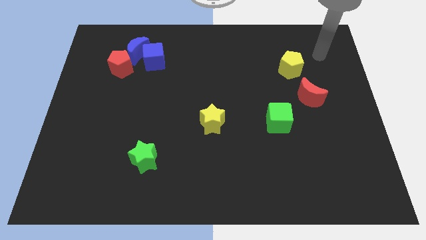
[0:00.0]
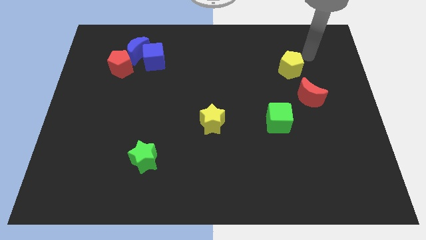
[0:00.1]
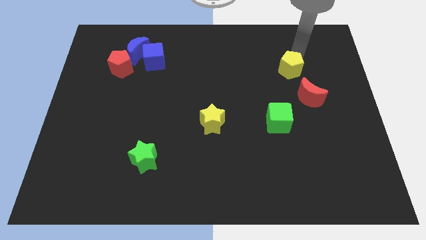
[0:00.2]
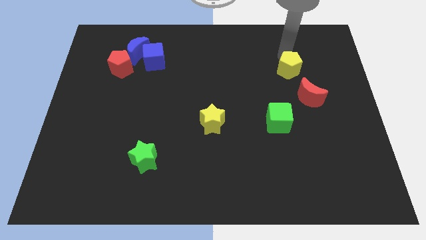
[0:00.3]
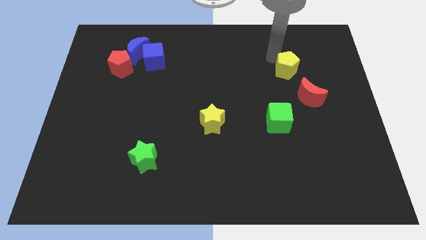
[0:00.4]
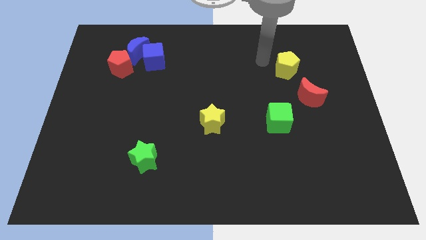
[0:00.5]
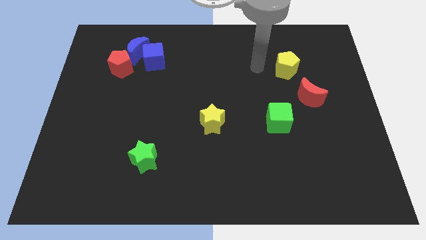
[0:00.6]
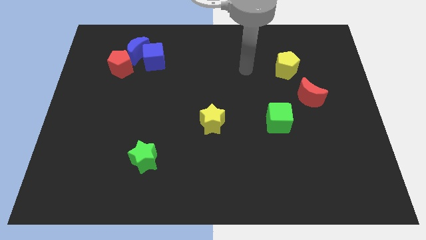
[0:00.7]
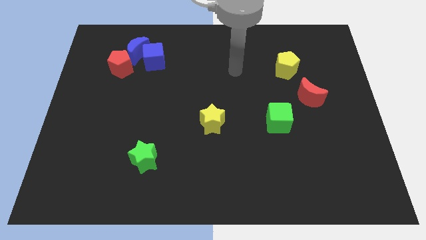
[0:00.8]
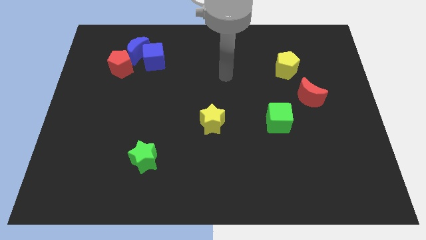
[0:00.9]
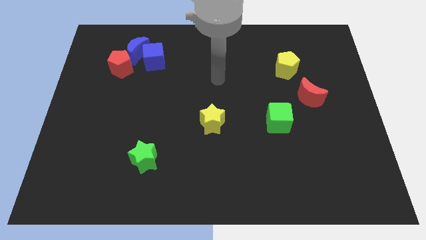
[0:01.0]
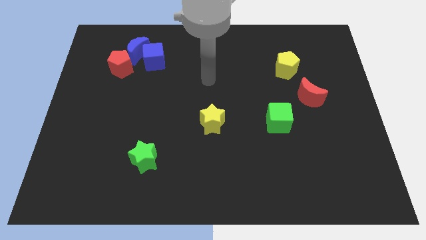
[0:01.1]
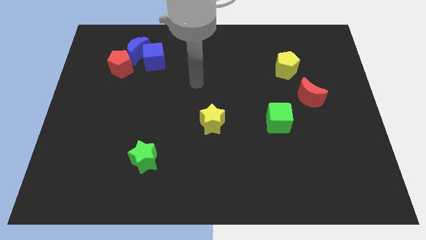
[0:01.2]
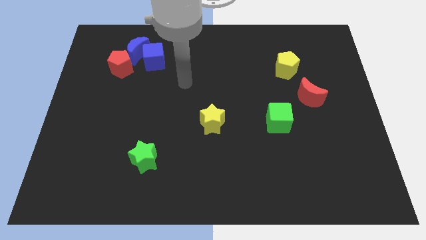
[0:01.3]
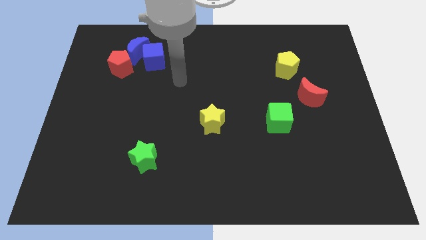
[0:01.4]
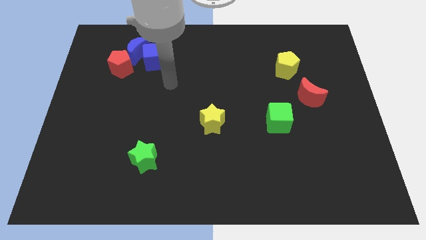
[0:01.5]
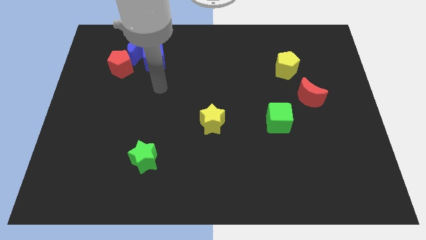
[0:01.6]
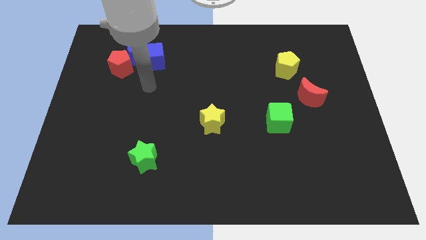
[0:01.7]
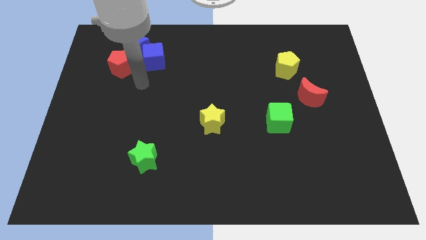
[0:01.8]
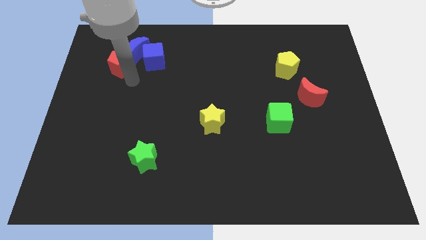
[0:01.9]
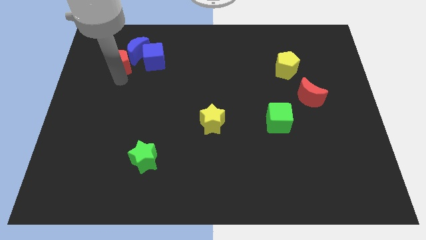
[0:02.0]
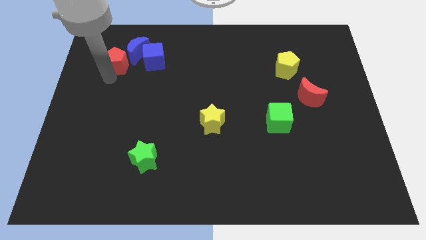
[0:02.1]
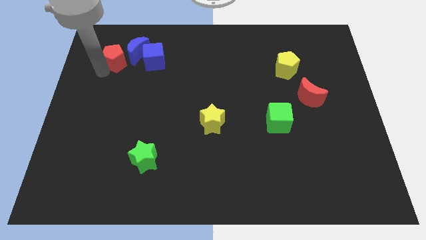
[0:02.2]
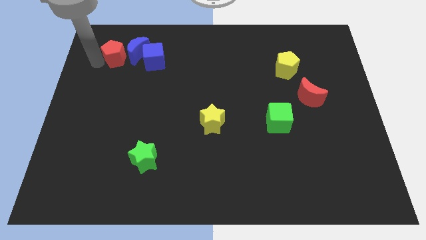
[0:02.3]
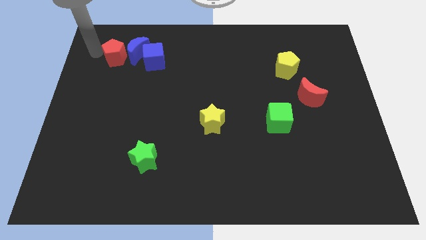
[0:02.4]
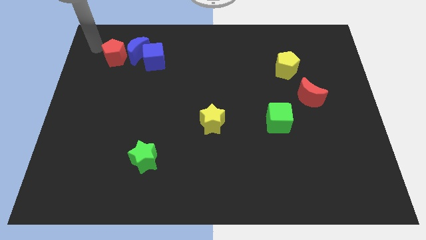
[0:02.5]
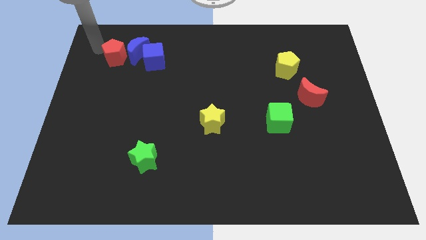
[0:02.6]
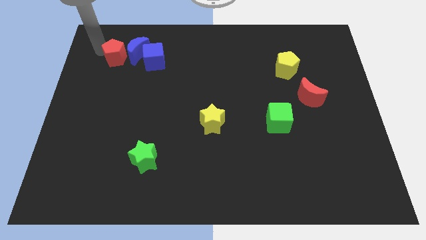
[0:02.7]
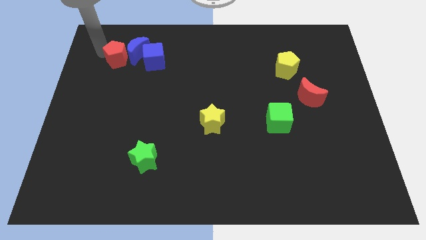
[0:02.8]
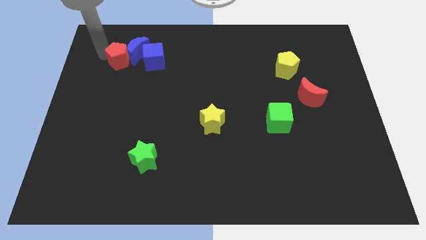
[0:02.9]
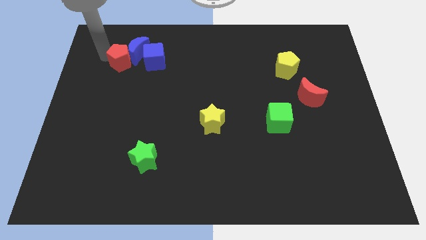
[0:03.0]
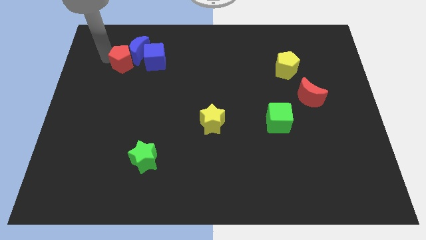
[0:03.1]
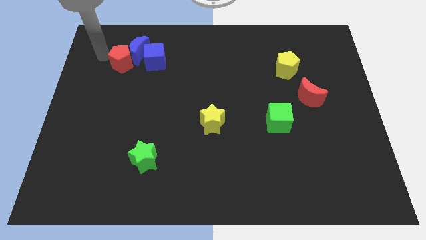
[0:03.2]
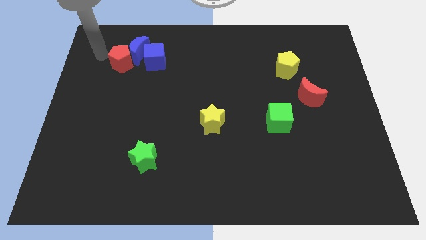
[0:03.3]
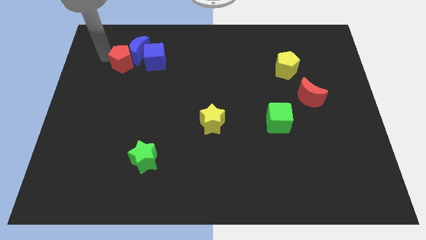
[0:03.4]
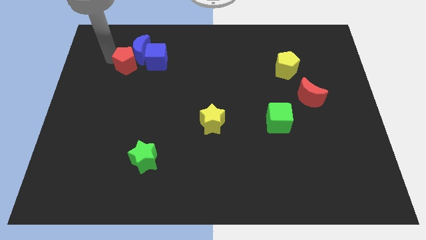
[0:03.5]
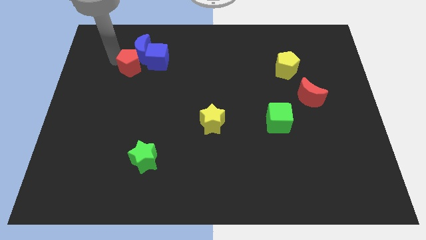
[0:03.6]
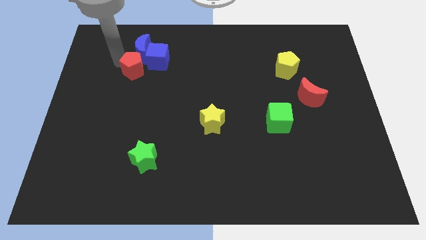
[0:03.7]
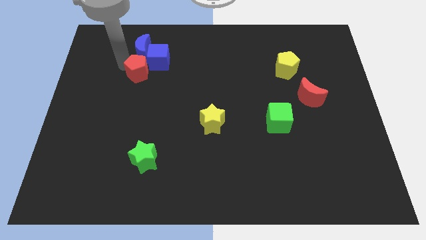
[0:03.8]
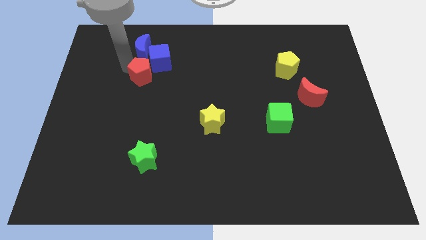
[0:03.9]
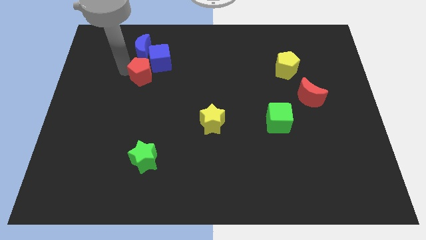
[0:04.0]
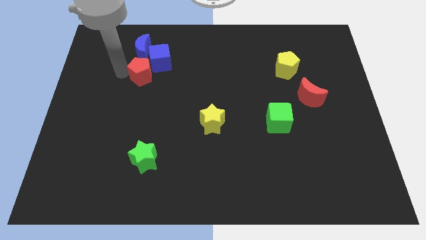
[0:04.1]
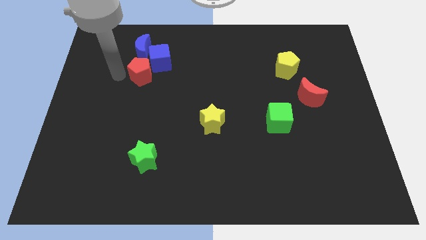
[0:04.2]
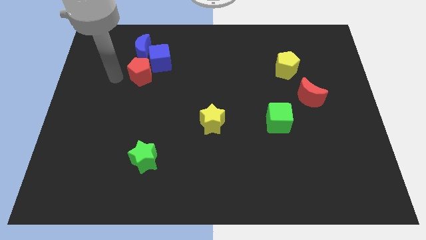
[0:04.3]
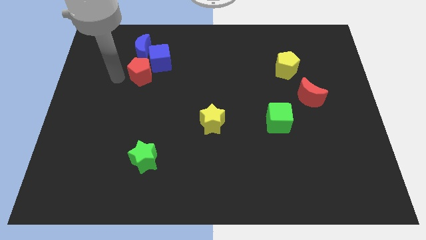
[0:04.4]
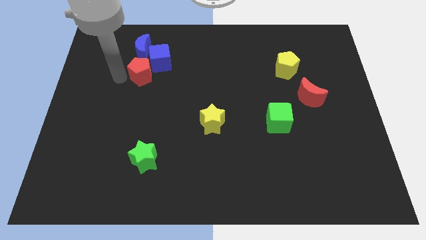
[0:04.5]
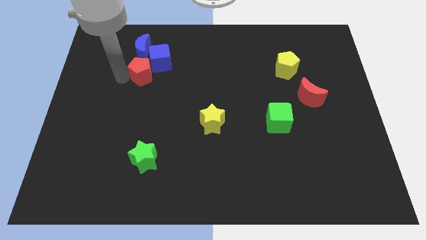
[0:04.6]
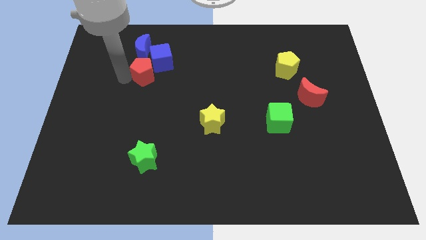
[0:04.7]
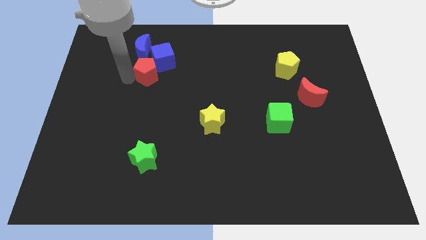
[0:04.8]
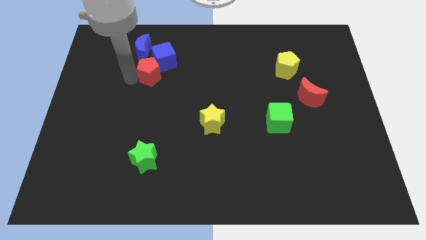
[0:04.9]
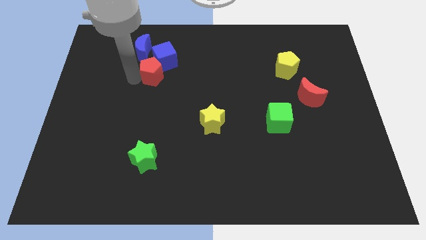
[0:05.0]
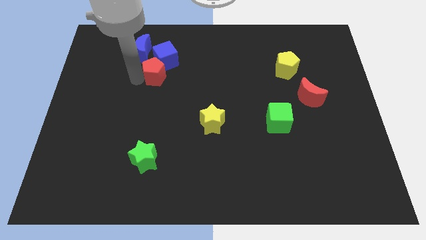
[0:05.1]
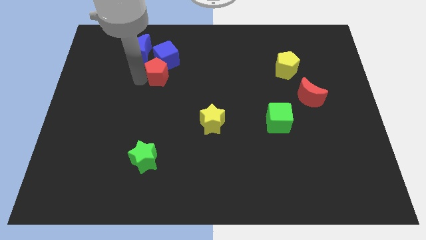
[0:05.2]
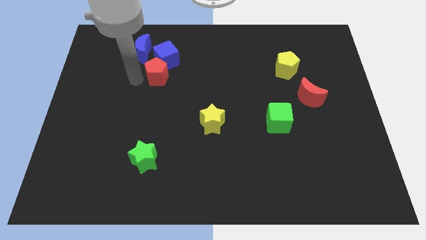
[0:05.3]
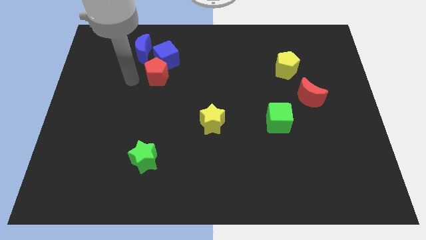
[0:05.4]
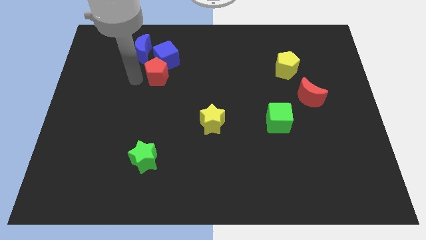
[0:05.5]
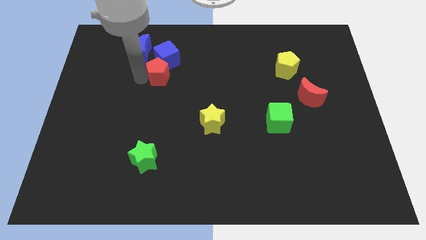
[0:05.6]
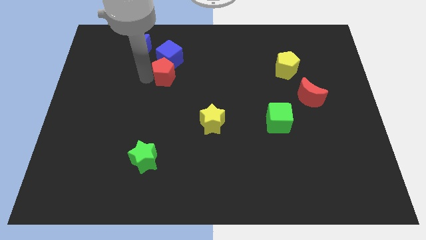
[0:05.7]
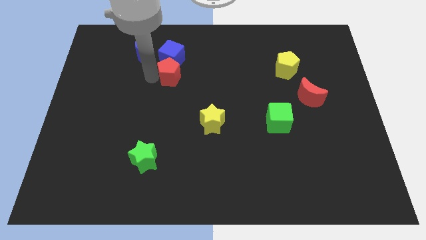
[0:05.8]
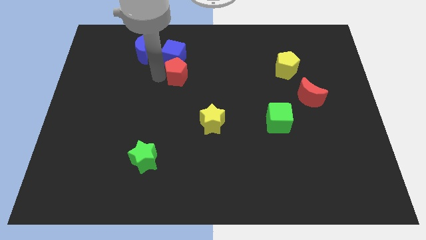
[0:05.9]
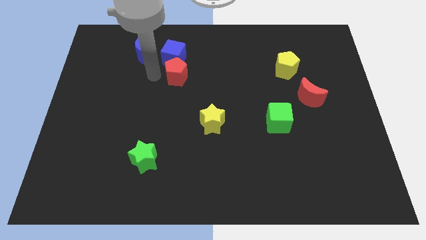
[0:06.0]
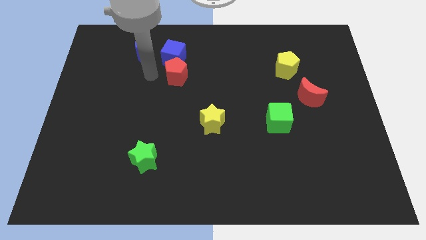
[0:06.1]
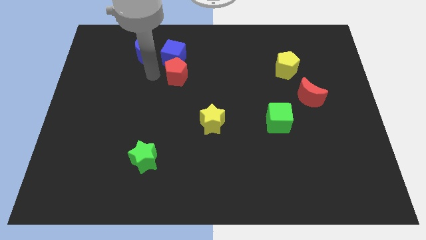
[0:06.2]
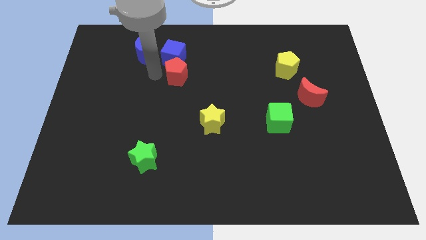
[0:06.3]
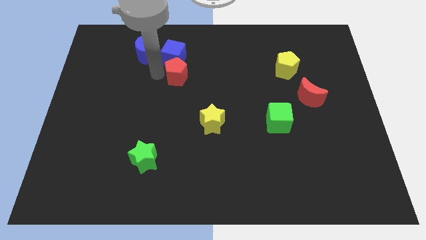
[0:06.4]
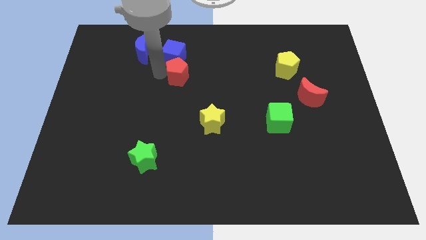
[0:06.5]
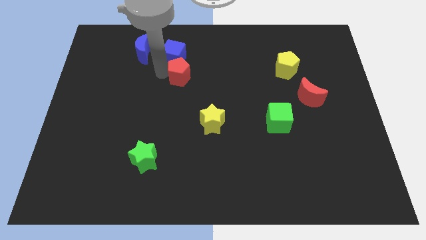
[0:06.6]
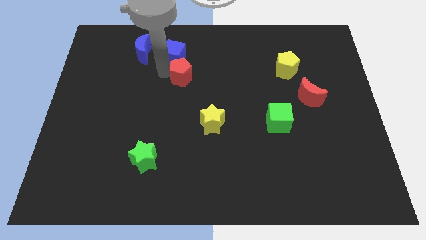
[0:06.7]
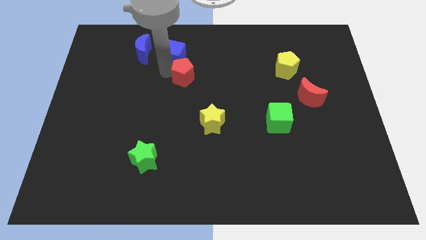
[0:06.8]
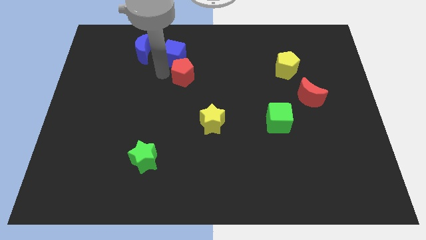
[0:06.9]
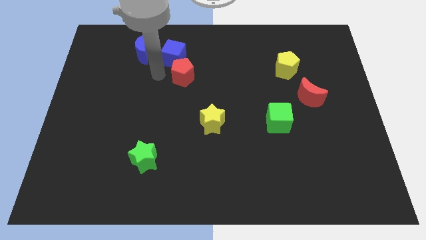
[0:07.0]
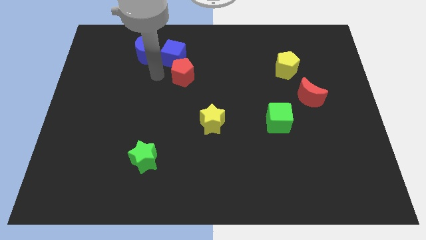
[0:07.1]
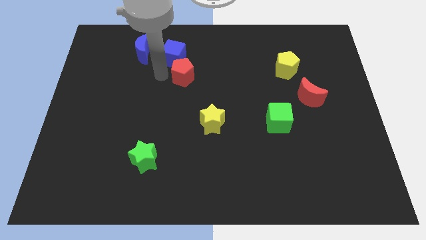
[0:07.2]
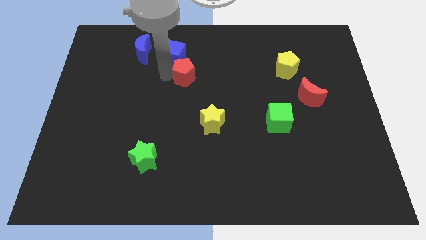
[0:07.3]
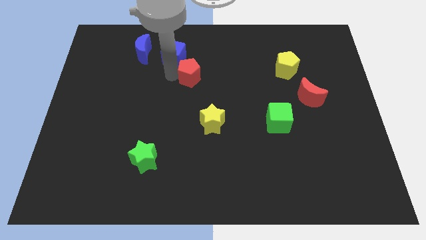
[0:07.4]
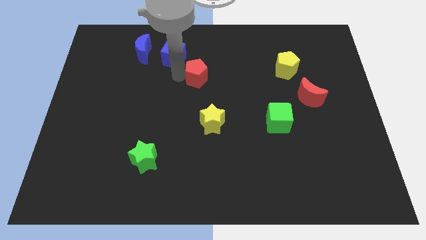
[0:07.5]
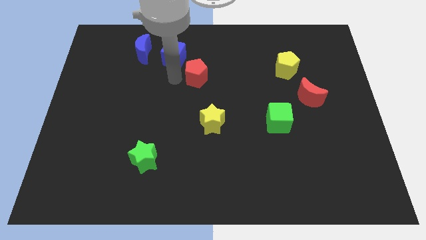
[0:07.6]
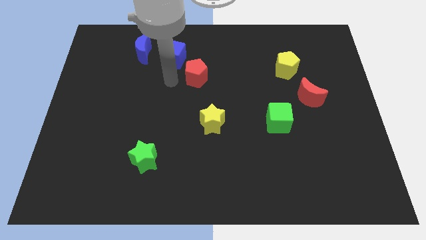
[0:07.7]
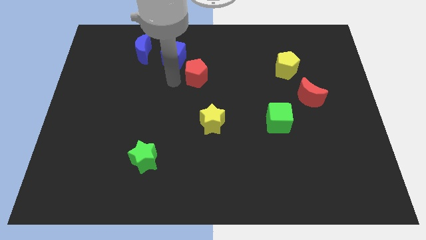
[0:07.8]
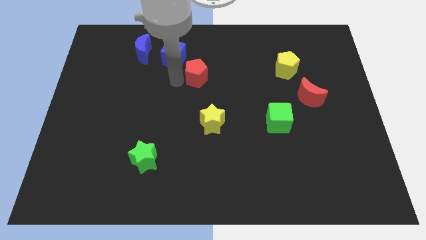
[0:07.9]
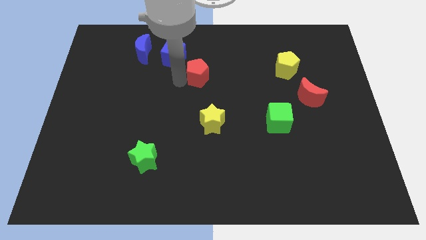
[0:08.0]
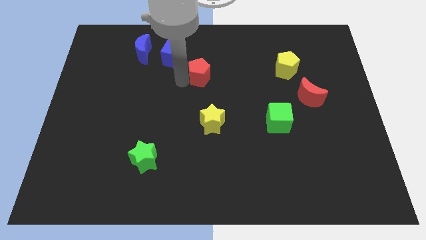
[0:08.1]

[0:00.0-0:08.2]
slide the red pentagon right
